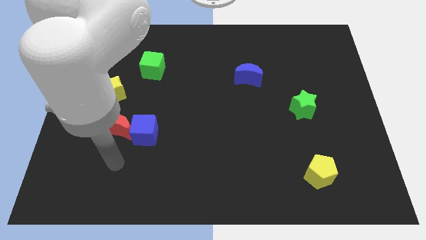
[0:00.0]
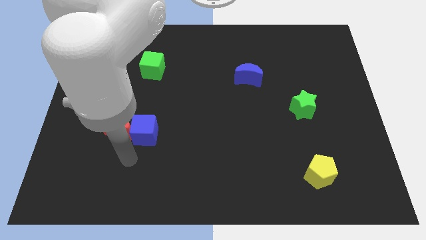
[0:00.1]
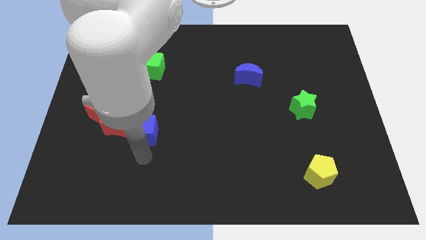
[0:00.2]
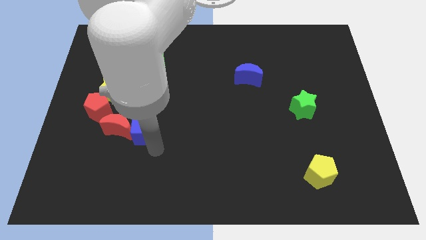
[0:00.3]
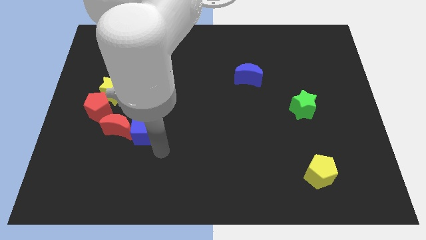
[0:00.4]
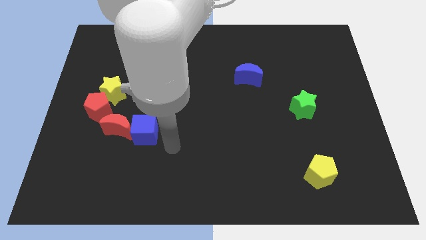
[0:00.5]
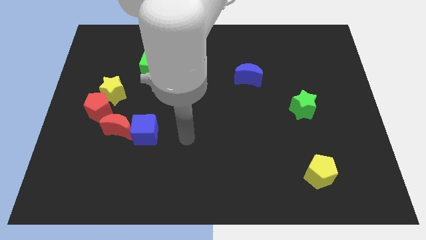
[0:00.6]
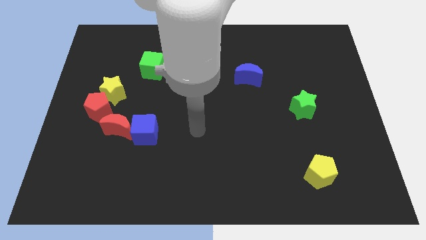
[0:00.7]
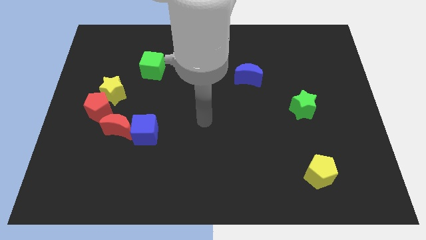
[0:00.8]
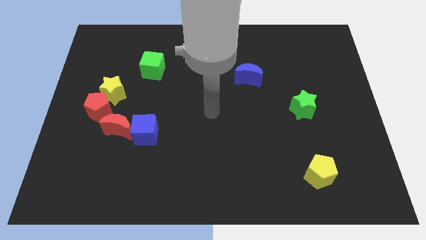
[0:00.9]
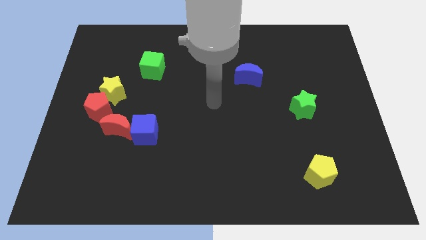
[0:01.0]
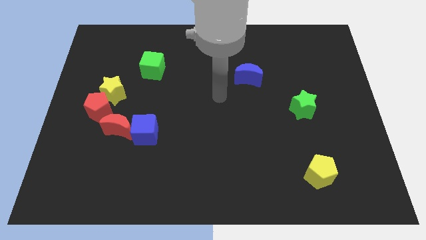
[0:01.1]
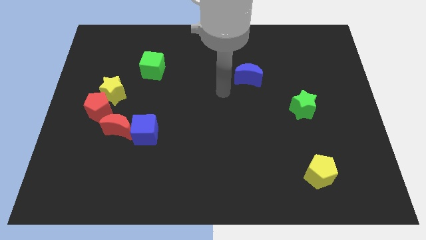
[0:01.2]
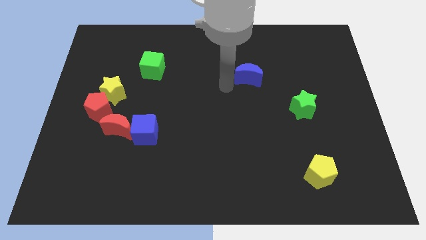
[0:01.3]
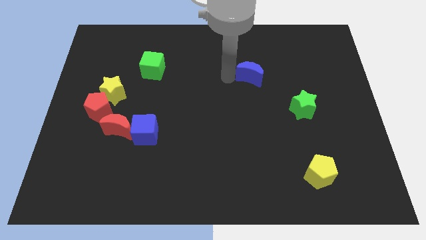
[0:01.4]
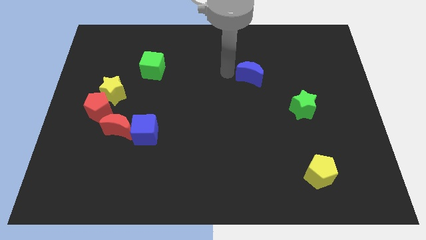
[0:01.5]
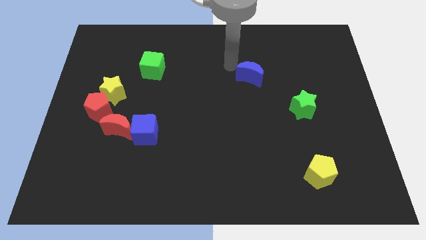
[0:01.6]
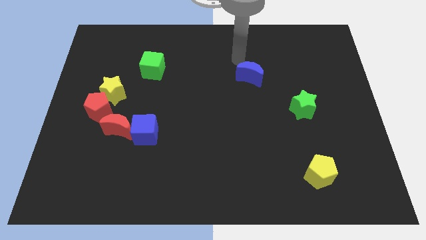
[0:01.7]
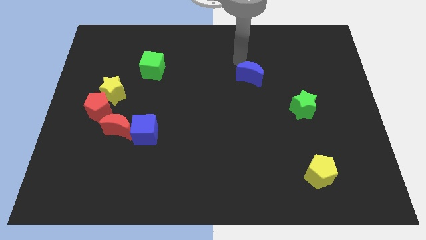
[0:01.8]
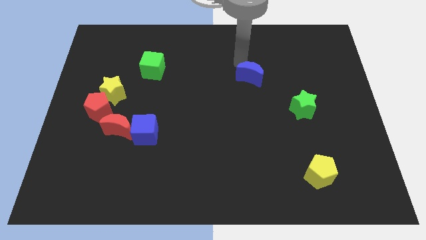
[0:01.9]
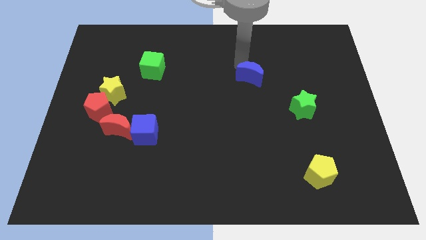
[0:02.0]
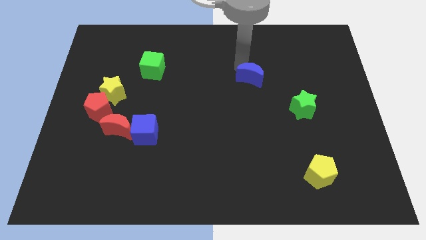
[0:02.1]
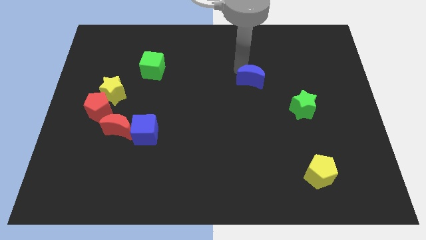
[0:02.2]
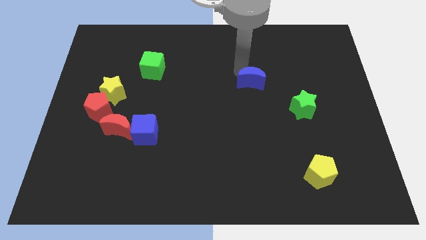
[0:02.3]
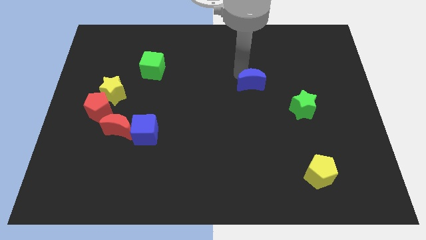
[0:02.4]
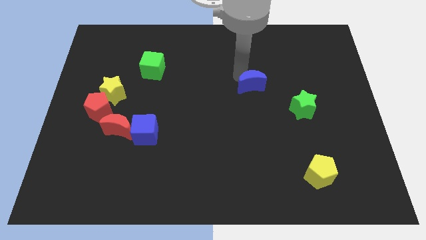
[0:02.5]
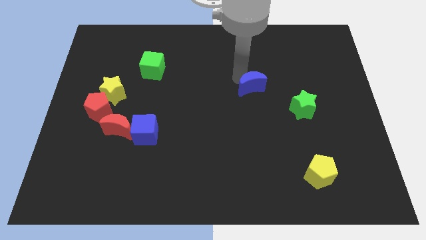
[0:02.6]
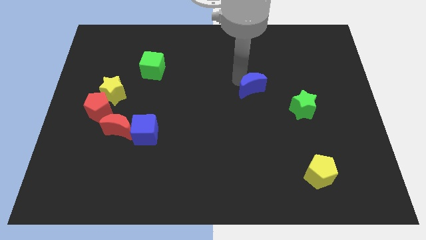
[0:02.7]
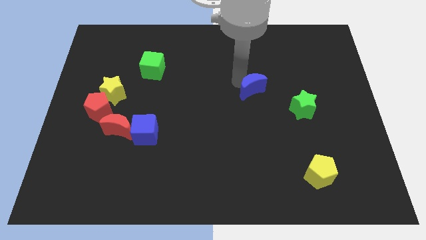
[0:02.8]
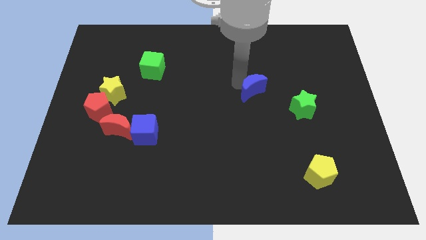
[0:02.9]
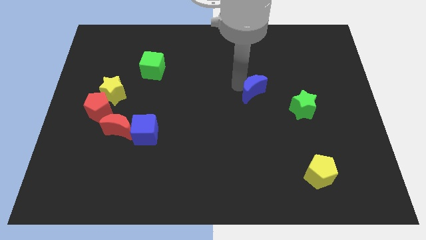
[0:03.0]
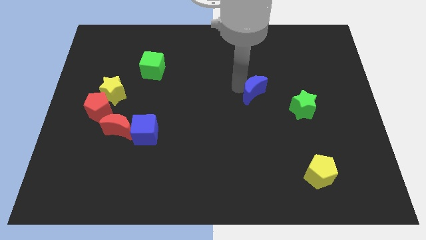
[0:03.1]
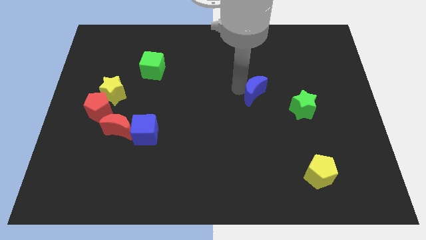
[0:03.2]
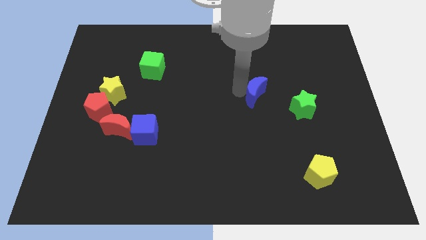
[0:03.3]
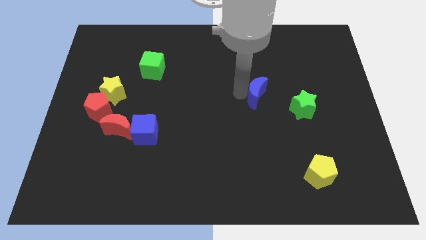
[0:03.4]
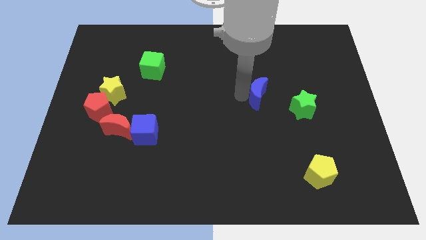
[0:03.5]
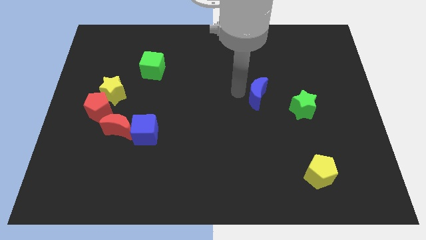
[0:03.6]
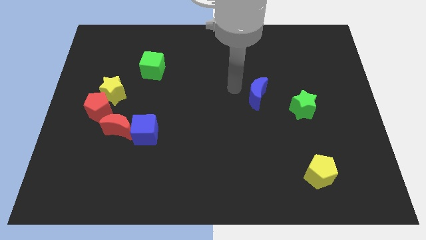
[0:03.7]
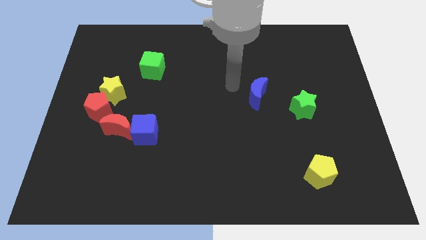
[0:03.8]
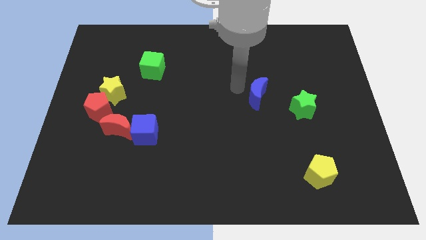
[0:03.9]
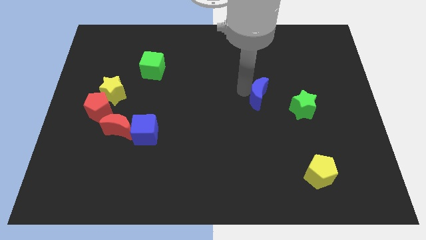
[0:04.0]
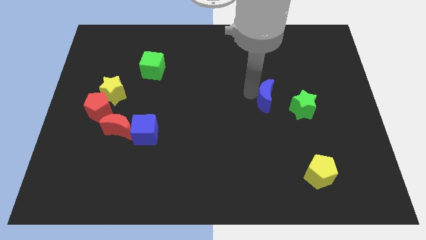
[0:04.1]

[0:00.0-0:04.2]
slightly move the blue moon downwards and then right

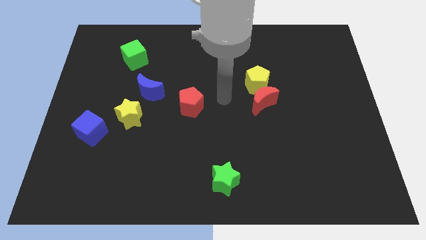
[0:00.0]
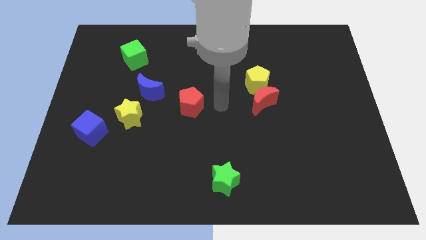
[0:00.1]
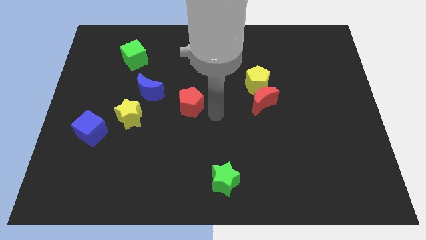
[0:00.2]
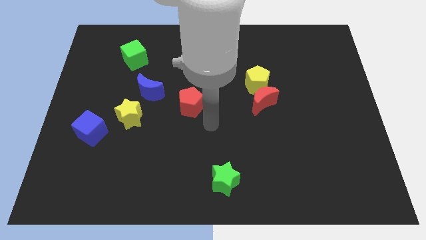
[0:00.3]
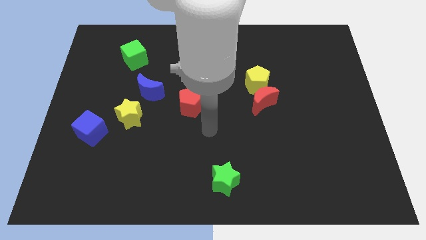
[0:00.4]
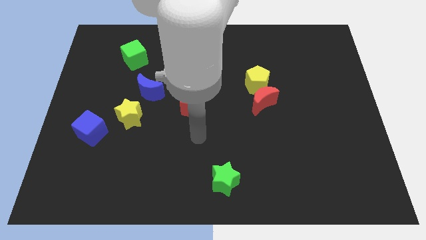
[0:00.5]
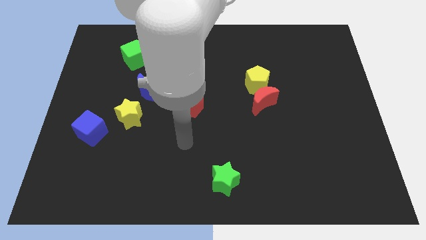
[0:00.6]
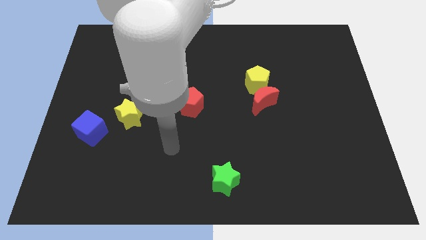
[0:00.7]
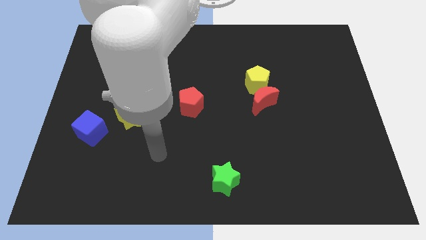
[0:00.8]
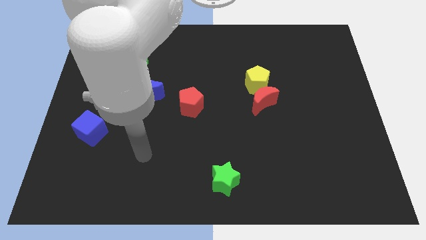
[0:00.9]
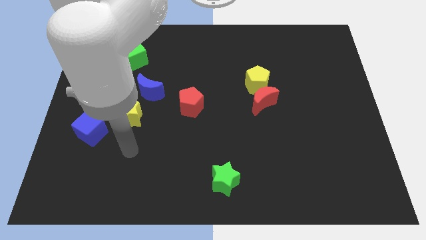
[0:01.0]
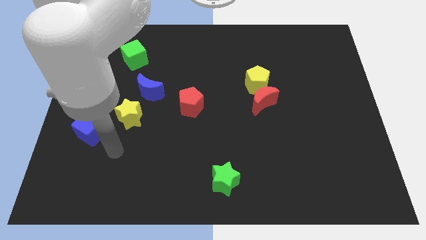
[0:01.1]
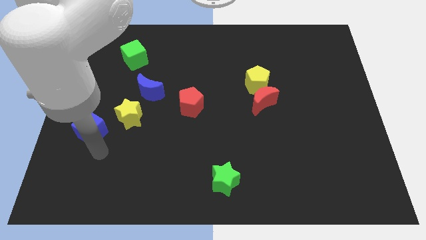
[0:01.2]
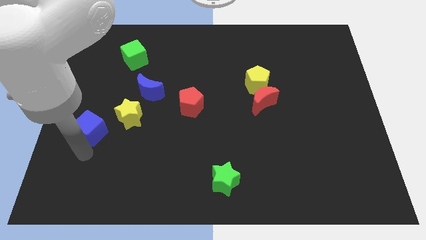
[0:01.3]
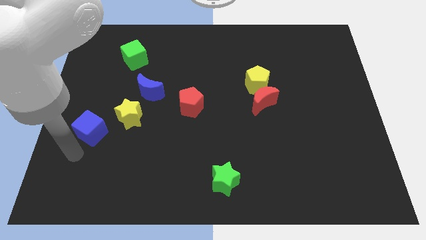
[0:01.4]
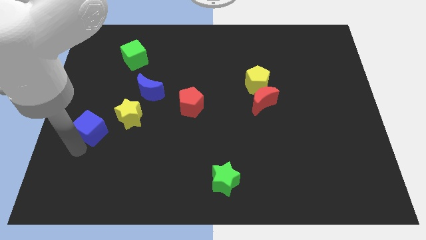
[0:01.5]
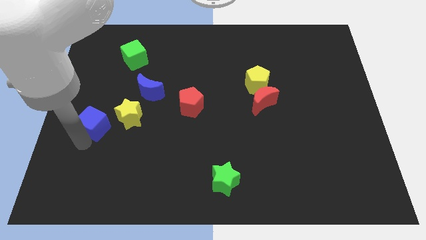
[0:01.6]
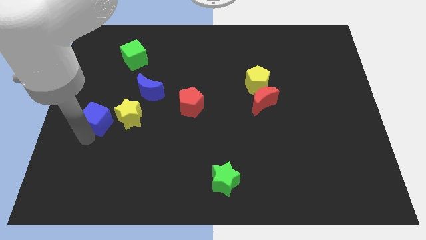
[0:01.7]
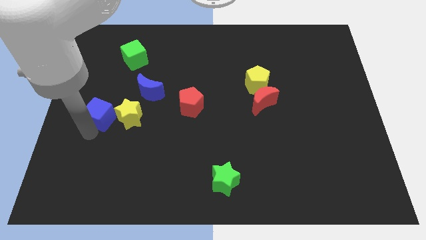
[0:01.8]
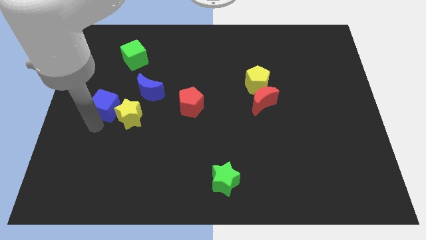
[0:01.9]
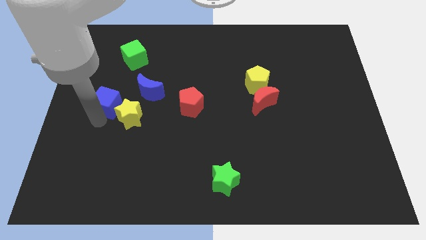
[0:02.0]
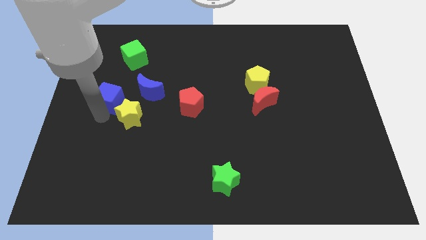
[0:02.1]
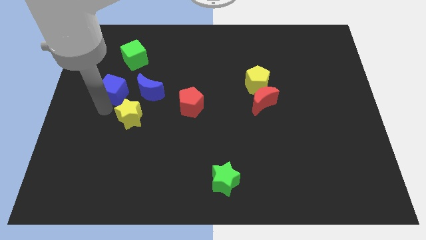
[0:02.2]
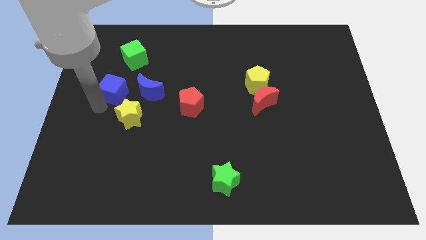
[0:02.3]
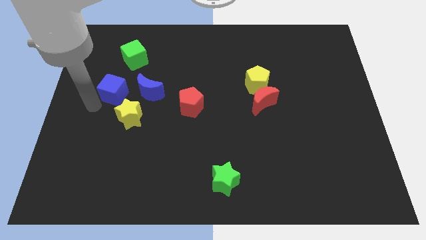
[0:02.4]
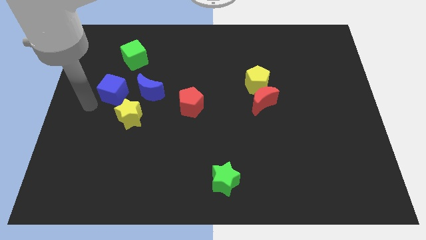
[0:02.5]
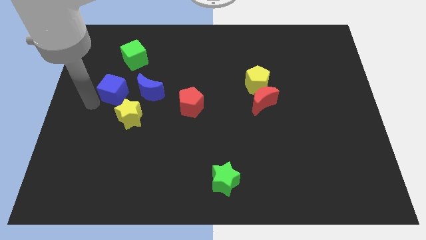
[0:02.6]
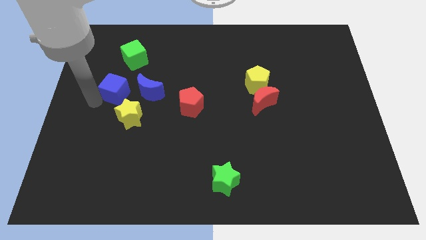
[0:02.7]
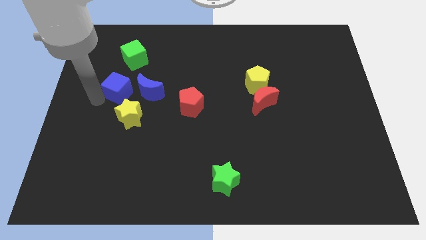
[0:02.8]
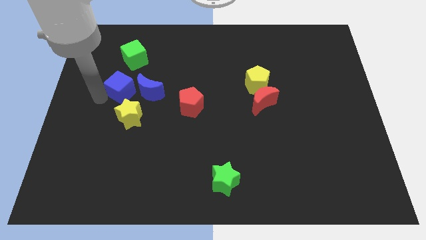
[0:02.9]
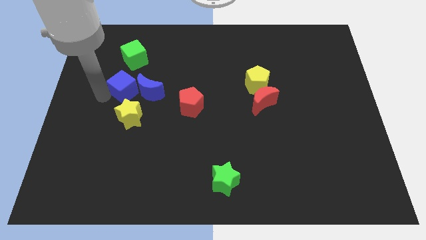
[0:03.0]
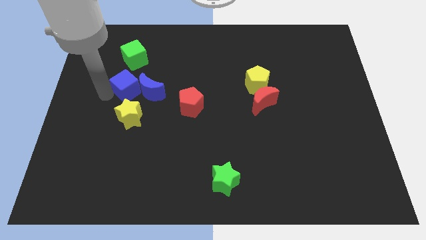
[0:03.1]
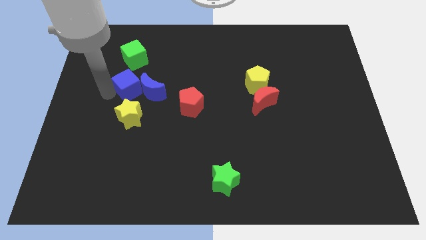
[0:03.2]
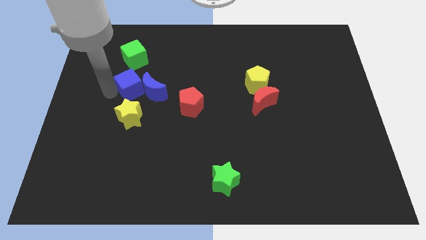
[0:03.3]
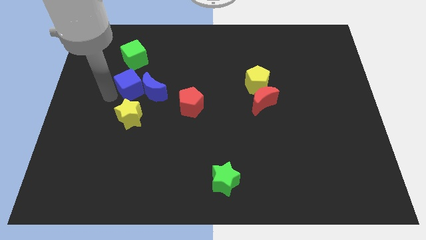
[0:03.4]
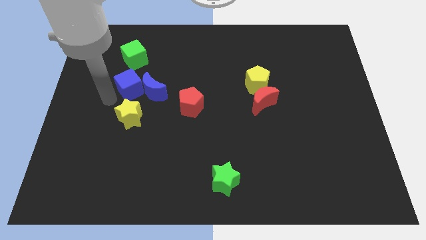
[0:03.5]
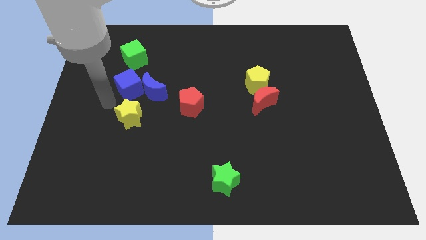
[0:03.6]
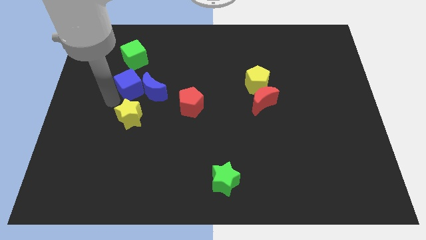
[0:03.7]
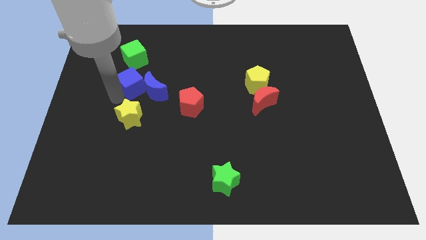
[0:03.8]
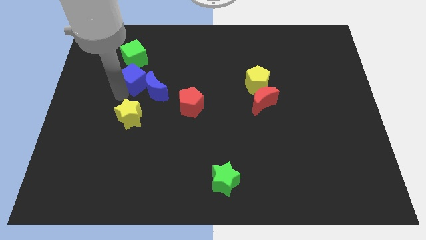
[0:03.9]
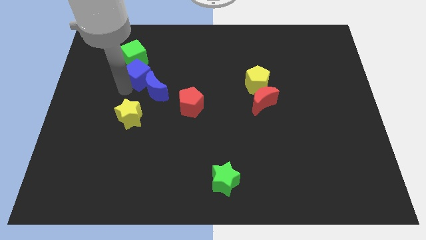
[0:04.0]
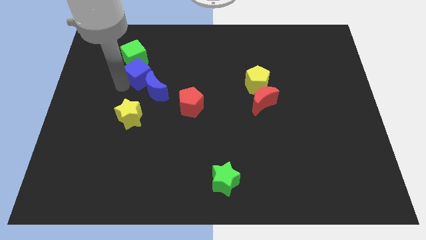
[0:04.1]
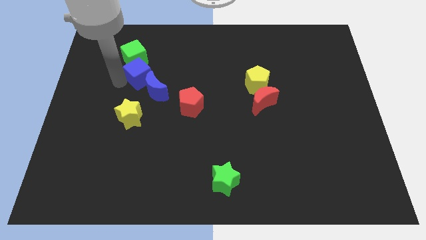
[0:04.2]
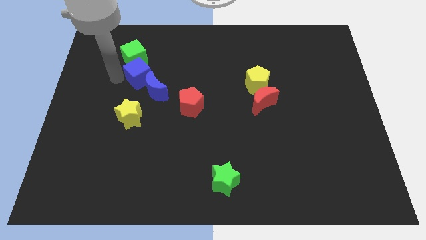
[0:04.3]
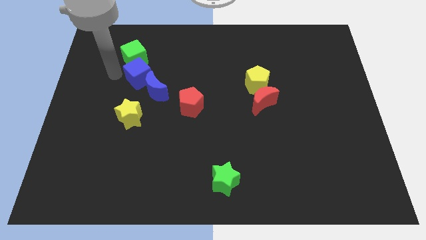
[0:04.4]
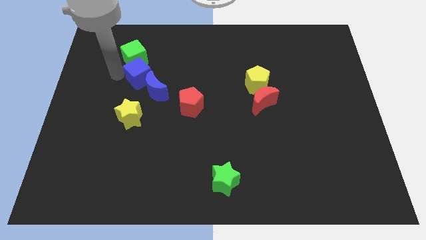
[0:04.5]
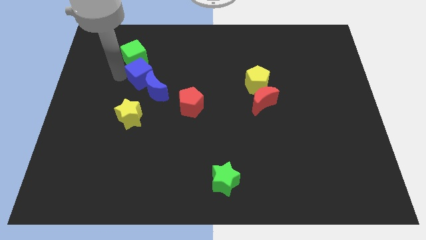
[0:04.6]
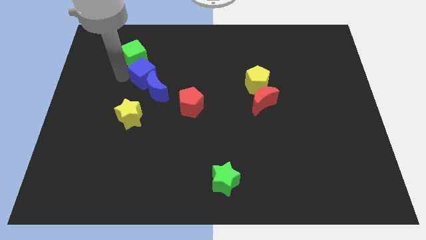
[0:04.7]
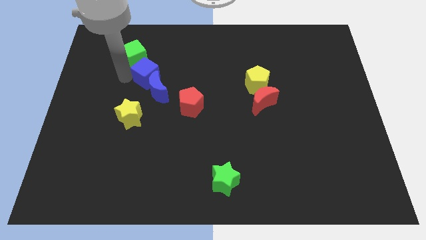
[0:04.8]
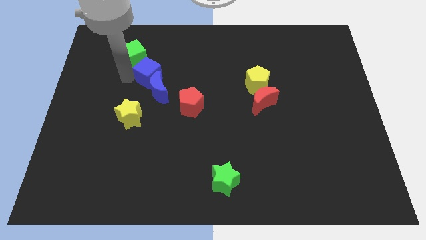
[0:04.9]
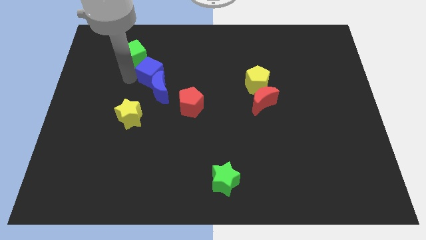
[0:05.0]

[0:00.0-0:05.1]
push the blue cube diagonally up and right
